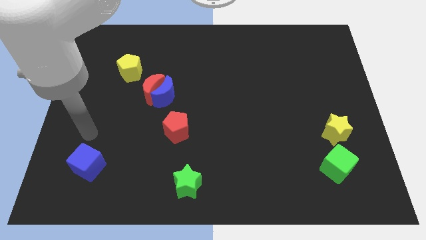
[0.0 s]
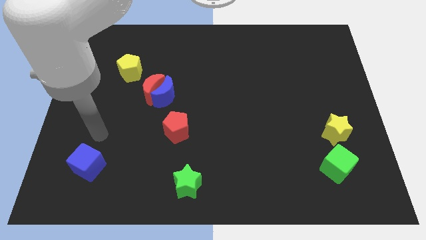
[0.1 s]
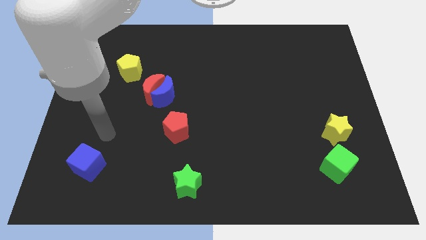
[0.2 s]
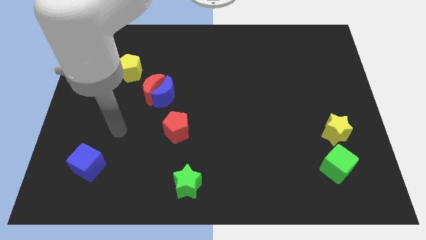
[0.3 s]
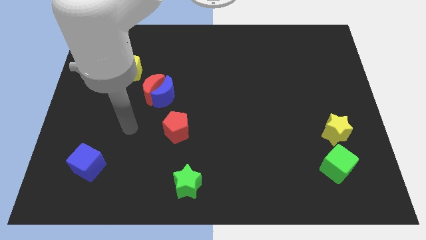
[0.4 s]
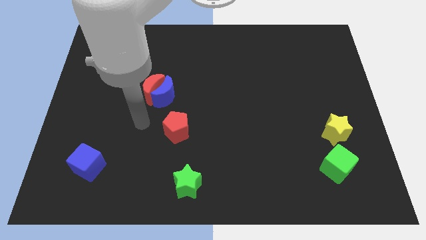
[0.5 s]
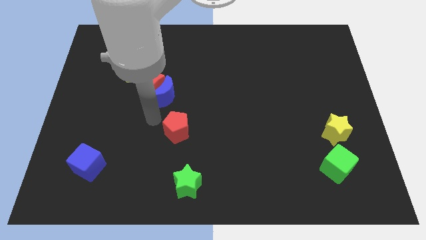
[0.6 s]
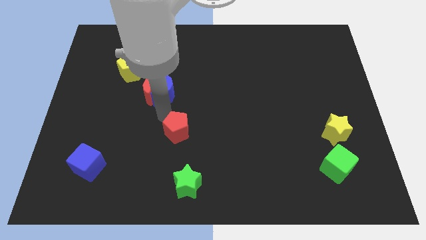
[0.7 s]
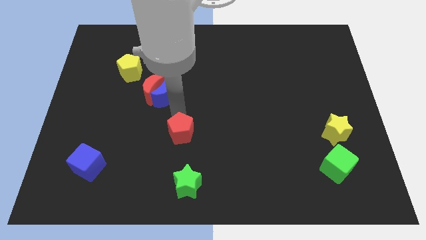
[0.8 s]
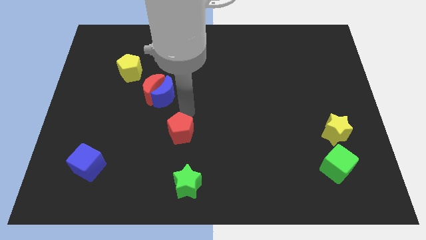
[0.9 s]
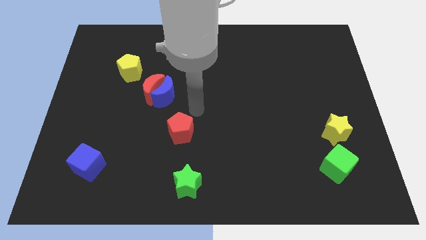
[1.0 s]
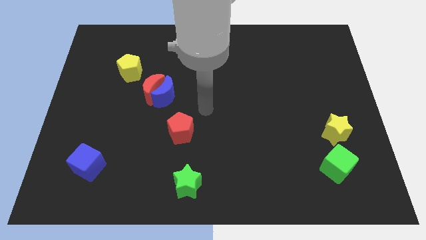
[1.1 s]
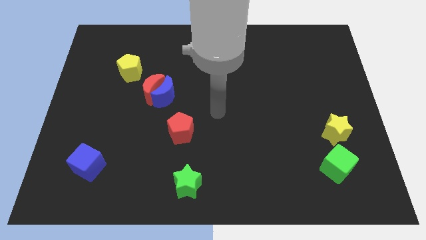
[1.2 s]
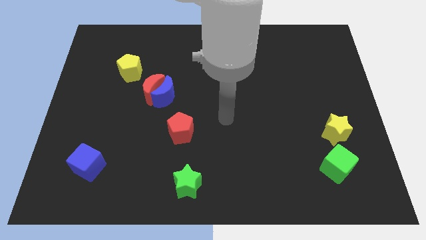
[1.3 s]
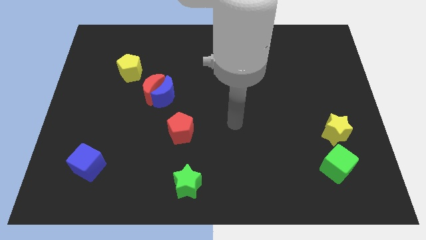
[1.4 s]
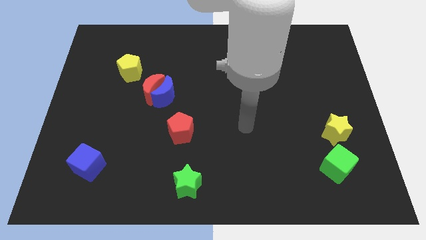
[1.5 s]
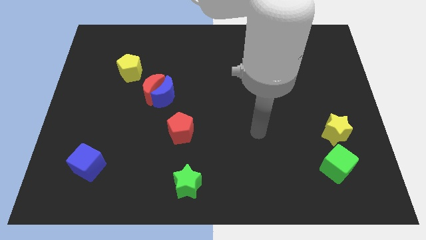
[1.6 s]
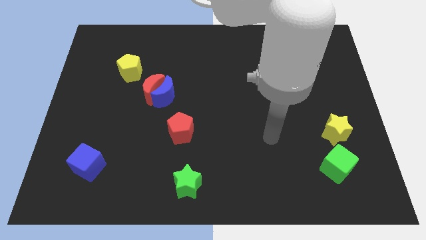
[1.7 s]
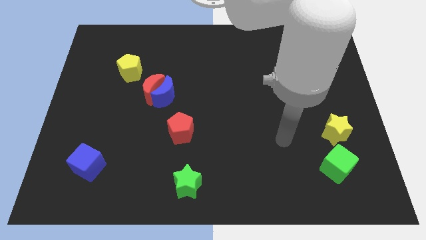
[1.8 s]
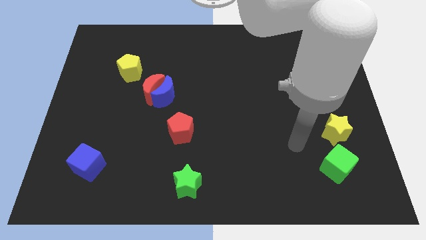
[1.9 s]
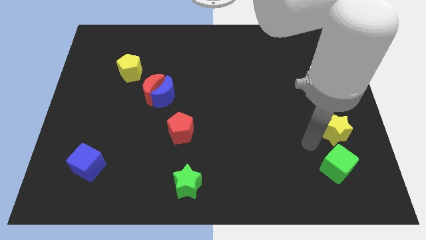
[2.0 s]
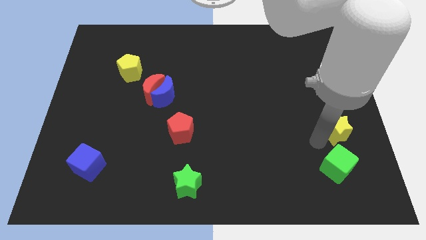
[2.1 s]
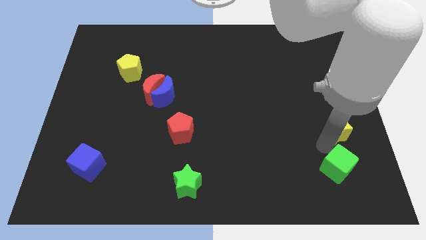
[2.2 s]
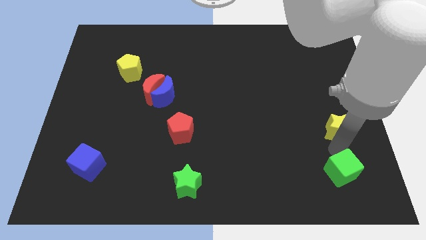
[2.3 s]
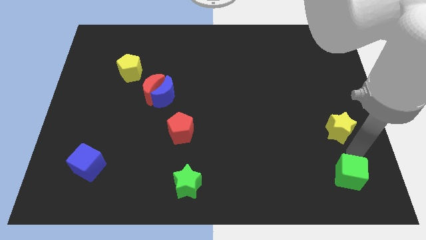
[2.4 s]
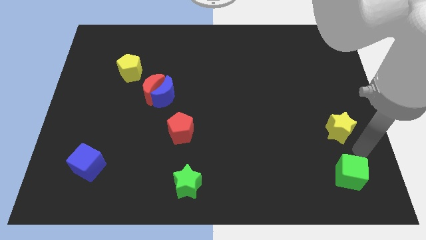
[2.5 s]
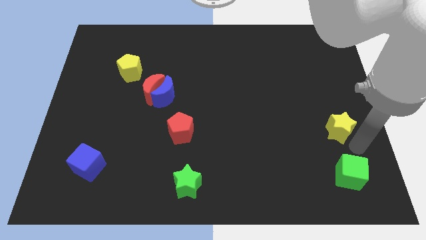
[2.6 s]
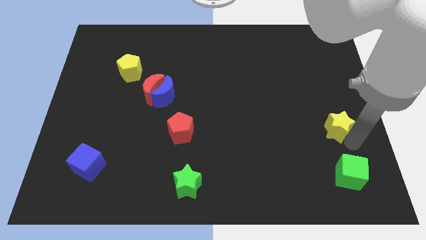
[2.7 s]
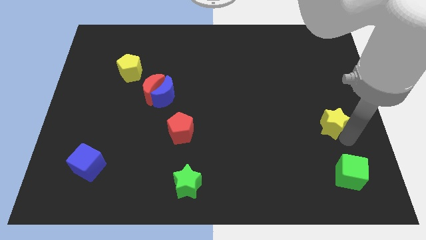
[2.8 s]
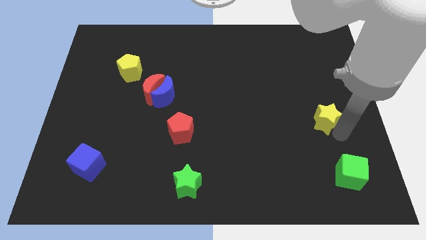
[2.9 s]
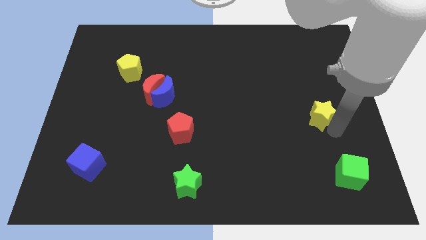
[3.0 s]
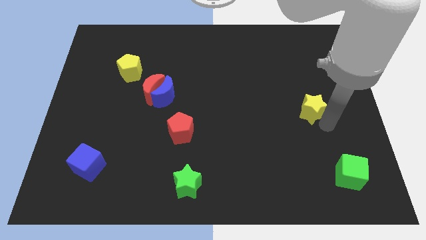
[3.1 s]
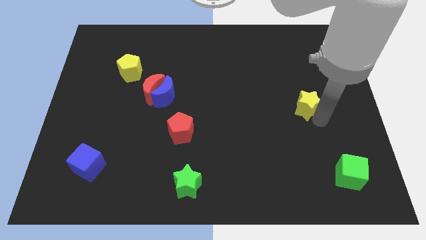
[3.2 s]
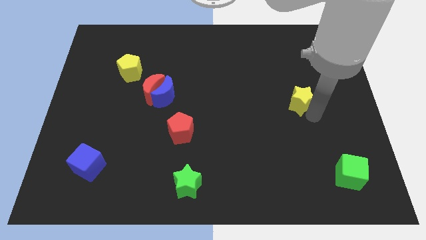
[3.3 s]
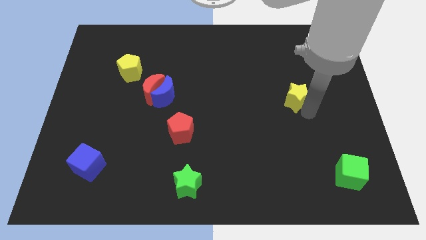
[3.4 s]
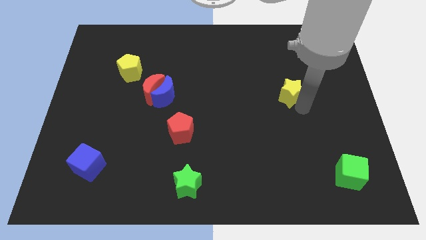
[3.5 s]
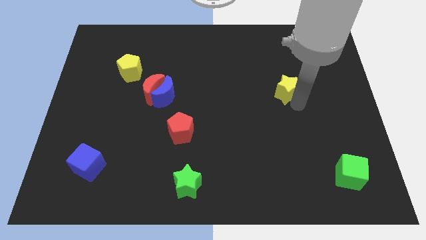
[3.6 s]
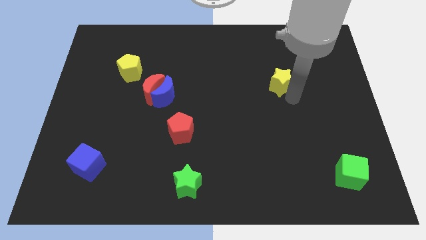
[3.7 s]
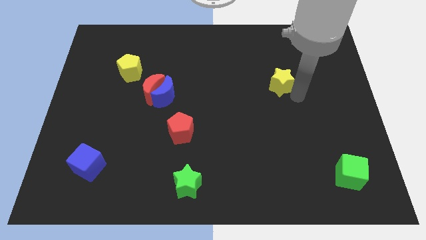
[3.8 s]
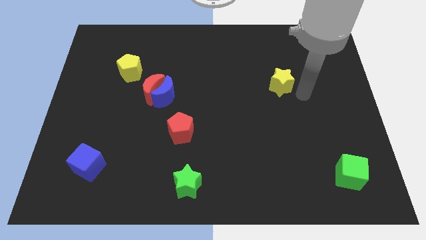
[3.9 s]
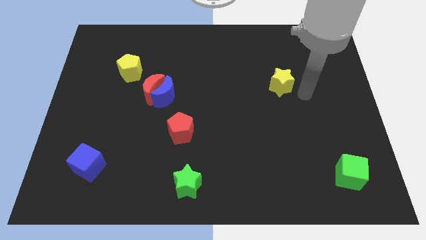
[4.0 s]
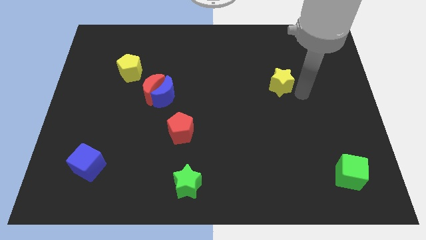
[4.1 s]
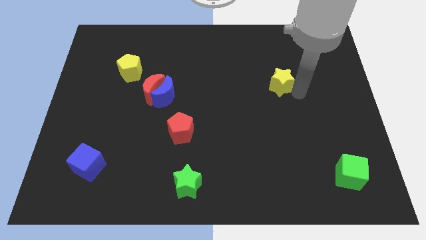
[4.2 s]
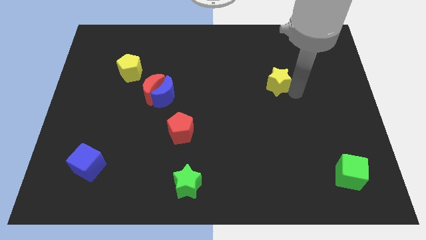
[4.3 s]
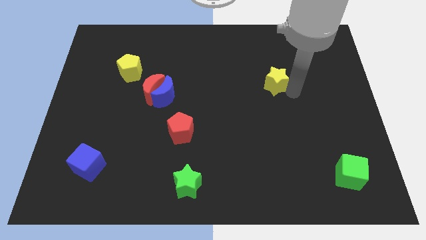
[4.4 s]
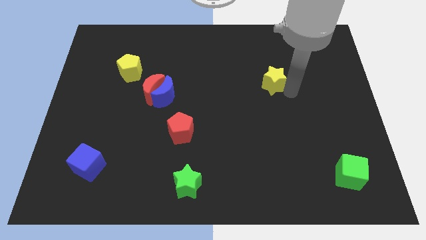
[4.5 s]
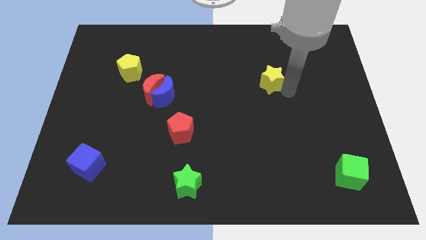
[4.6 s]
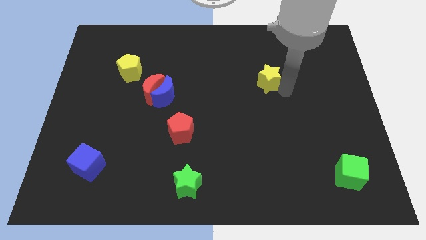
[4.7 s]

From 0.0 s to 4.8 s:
slide the yellow star up and to the left diagonally

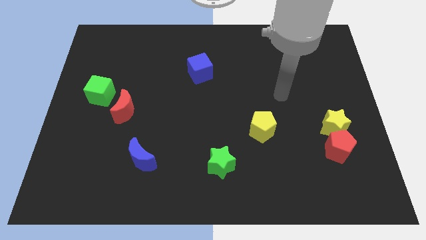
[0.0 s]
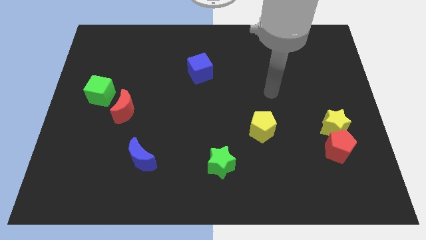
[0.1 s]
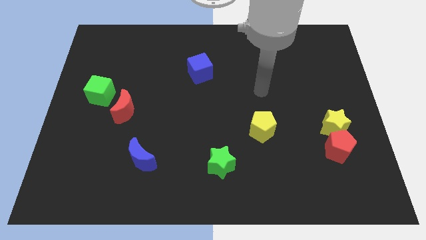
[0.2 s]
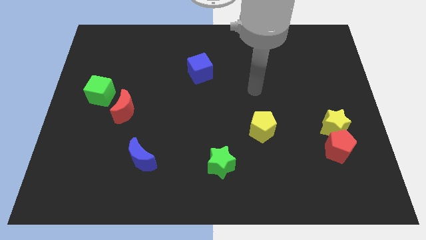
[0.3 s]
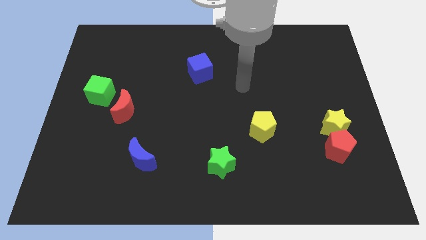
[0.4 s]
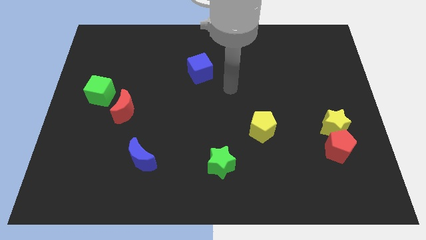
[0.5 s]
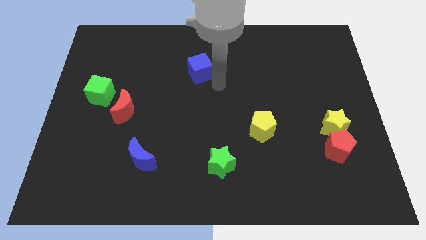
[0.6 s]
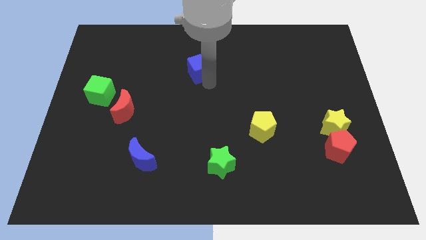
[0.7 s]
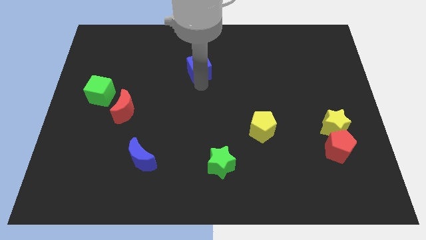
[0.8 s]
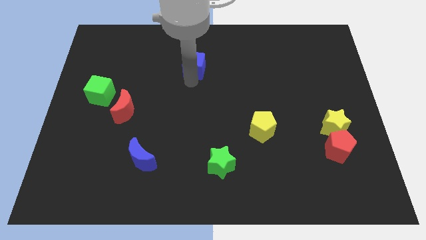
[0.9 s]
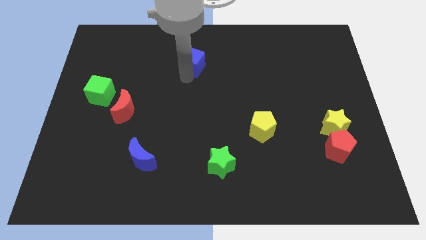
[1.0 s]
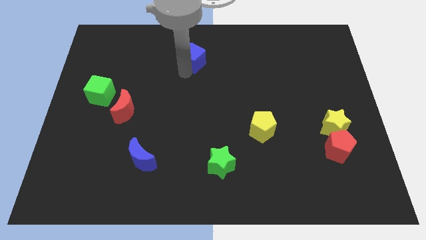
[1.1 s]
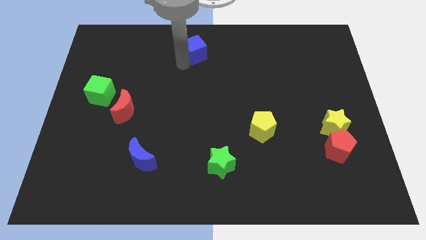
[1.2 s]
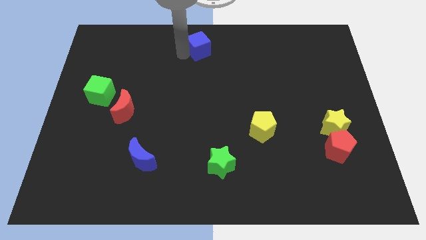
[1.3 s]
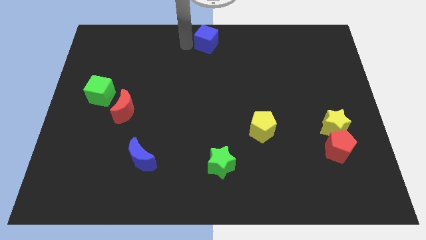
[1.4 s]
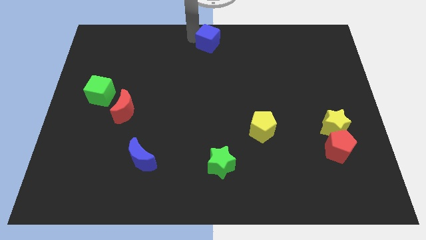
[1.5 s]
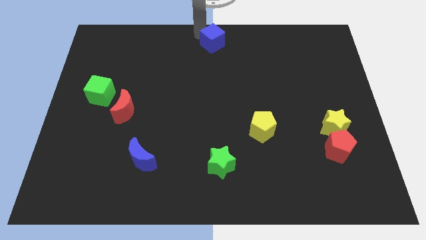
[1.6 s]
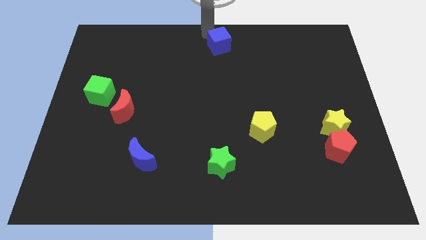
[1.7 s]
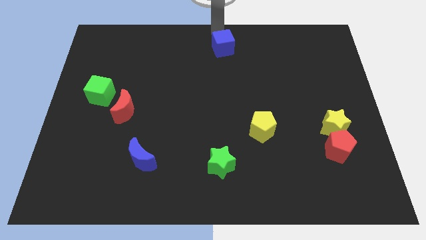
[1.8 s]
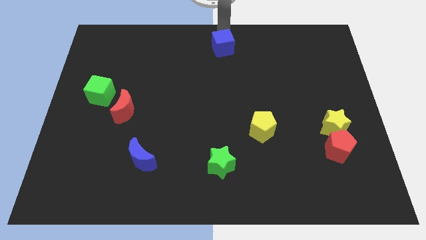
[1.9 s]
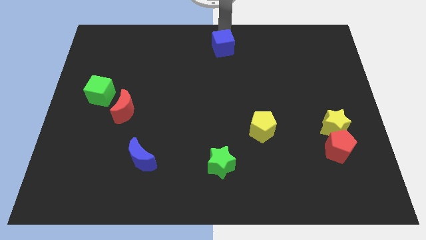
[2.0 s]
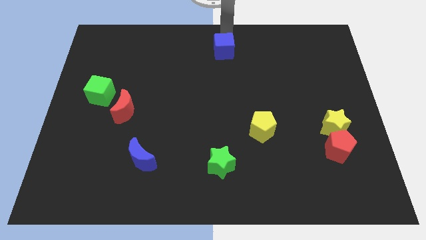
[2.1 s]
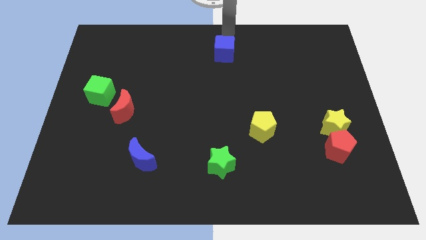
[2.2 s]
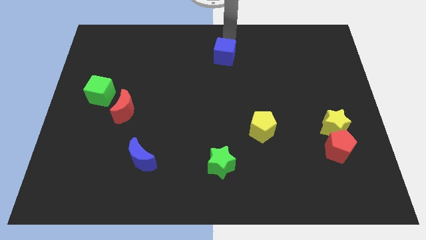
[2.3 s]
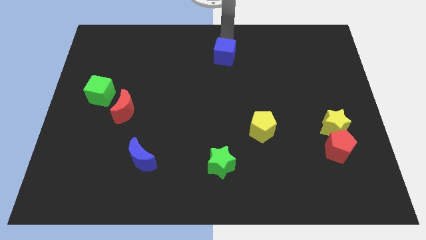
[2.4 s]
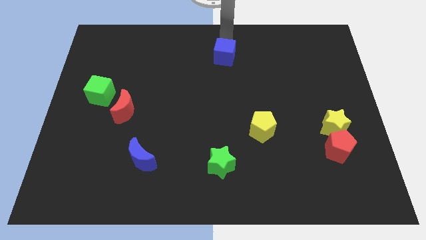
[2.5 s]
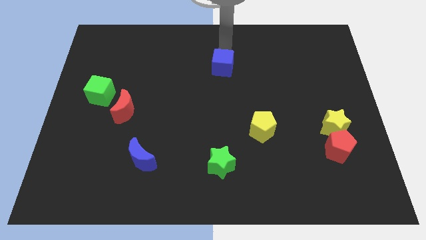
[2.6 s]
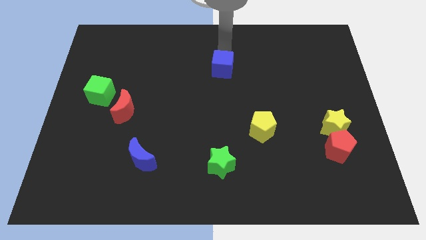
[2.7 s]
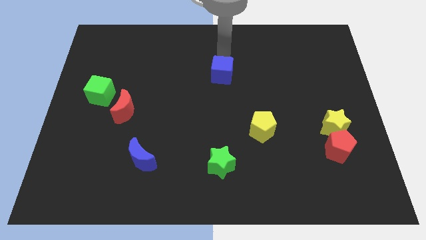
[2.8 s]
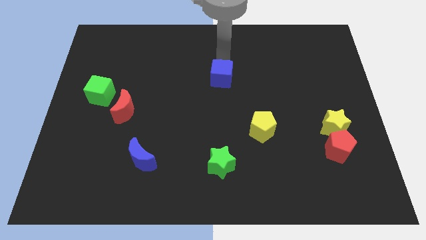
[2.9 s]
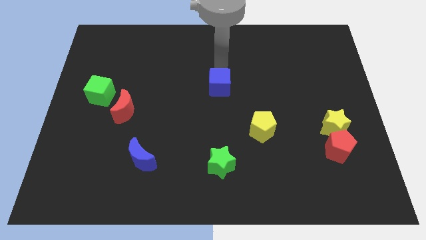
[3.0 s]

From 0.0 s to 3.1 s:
move the blue cube a little down and to the right

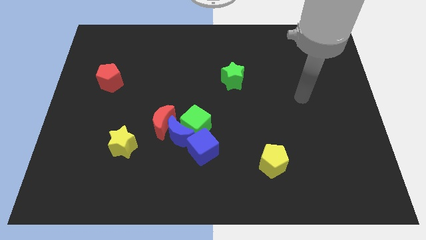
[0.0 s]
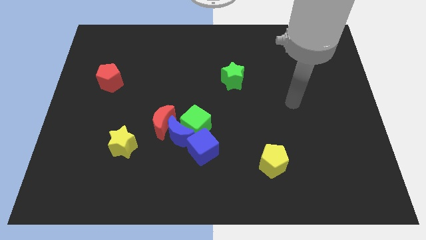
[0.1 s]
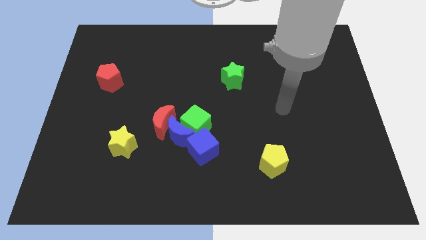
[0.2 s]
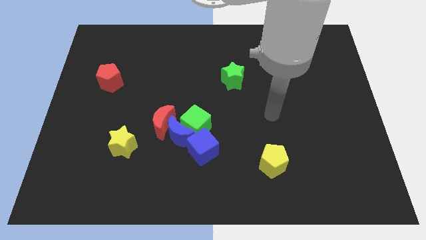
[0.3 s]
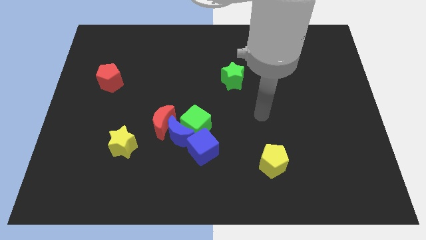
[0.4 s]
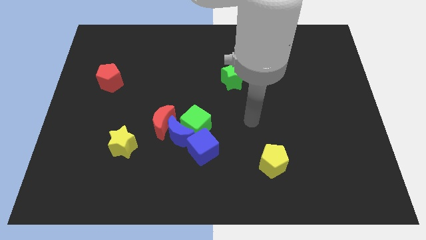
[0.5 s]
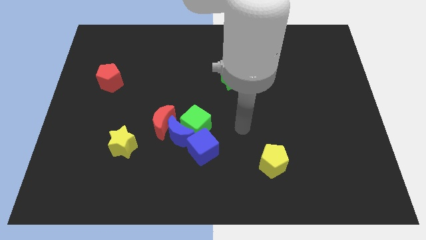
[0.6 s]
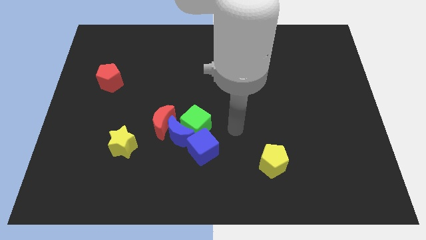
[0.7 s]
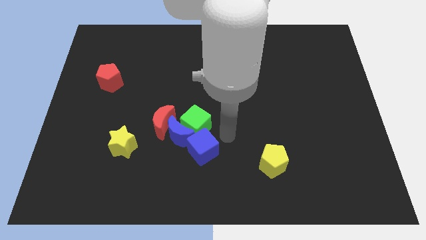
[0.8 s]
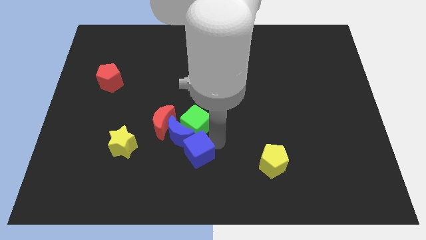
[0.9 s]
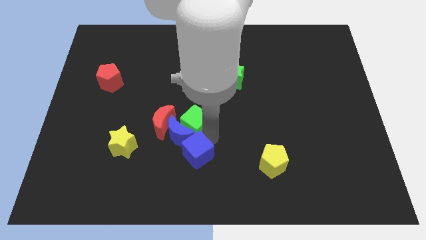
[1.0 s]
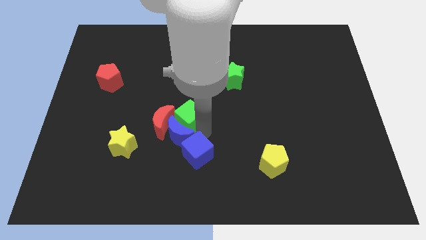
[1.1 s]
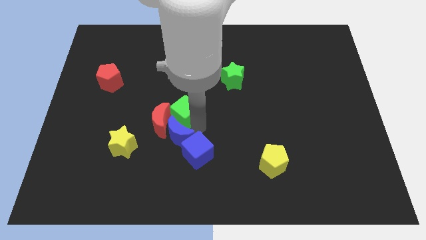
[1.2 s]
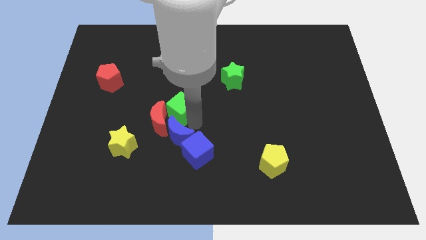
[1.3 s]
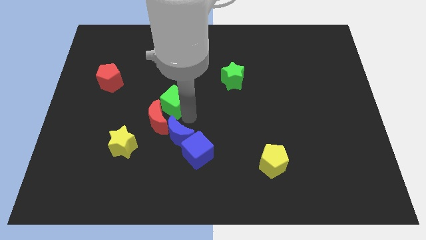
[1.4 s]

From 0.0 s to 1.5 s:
slightly slide the green cube up and left
